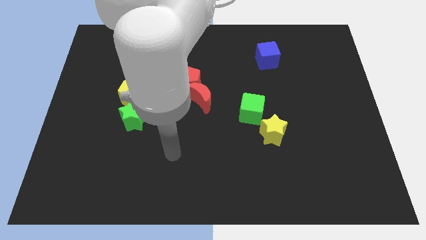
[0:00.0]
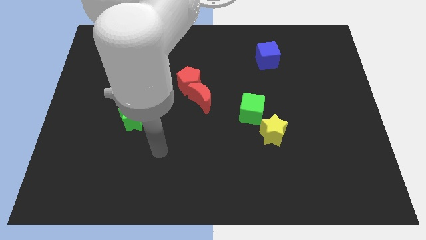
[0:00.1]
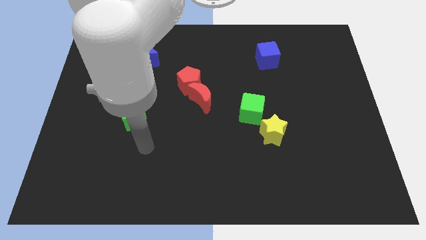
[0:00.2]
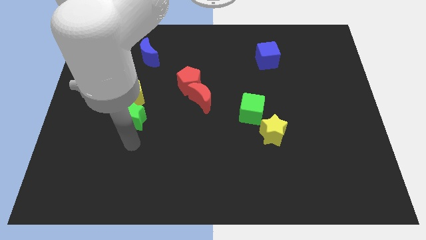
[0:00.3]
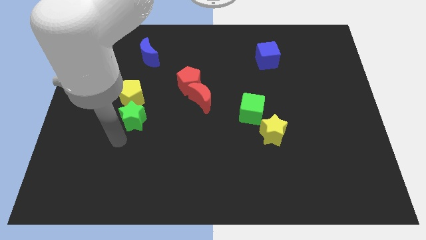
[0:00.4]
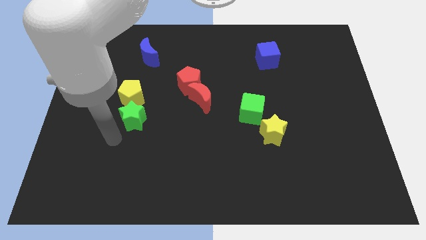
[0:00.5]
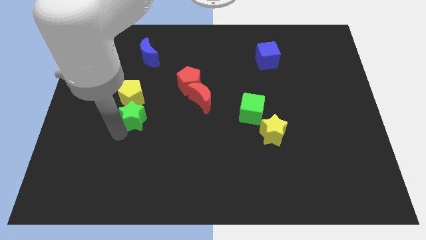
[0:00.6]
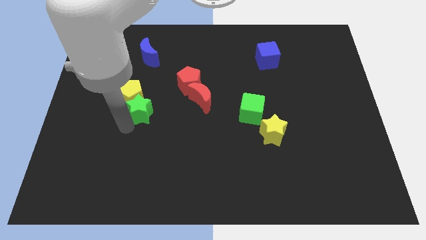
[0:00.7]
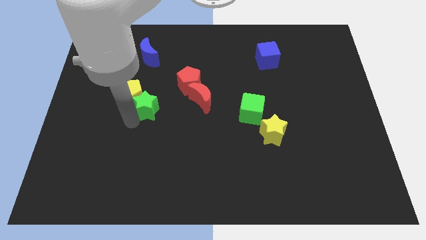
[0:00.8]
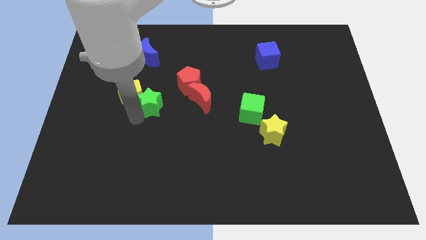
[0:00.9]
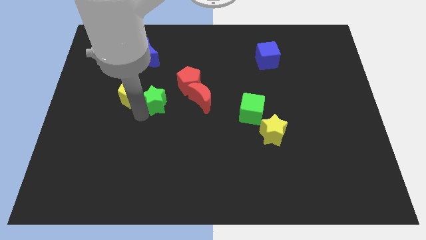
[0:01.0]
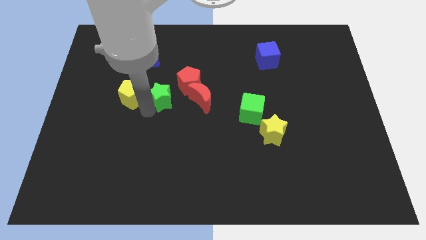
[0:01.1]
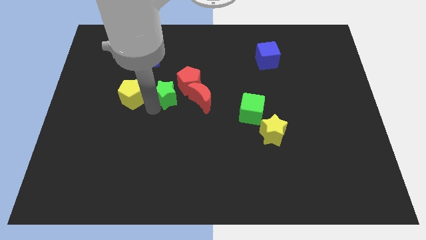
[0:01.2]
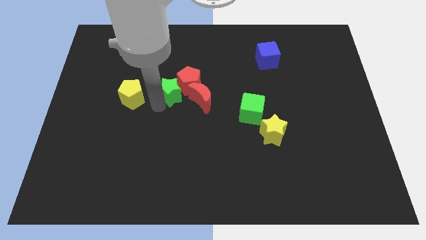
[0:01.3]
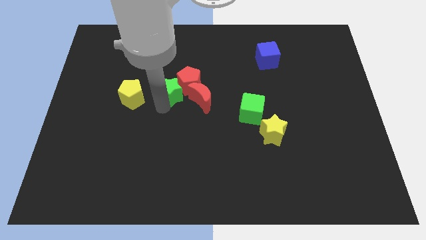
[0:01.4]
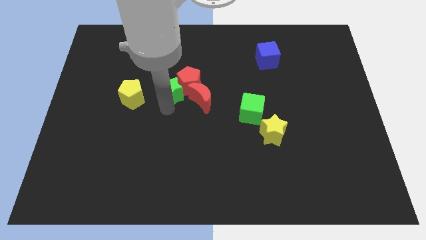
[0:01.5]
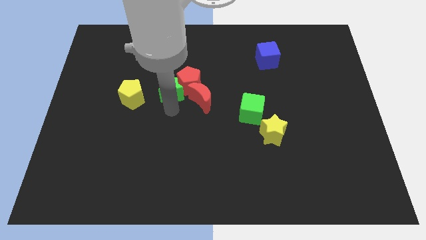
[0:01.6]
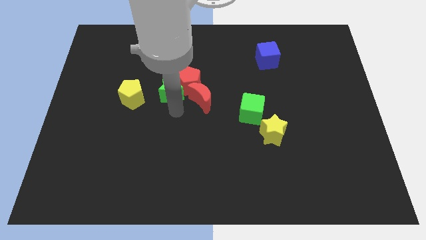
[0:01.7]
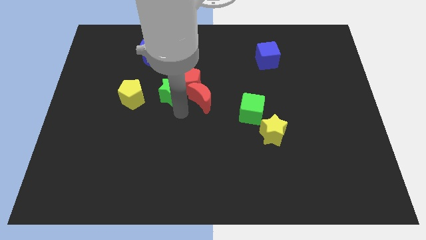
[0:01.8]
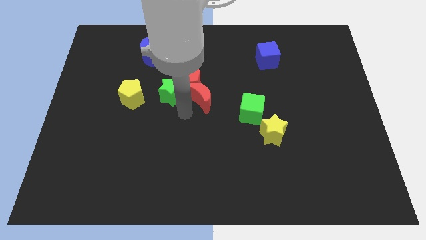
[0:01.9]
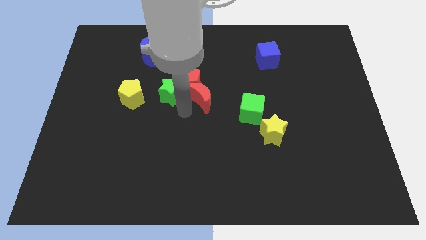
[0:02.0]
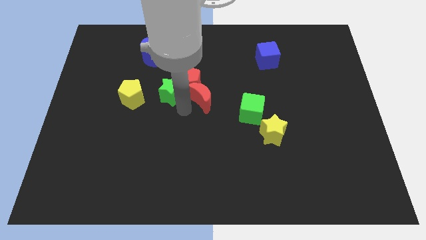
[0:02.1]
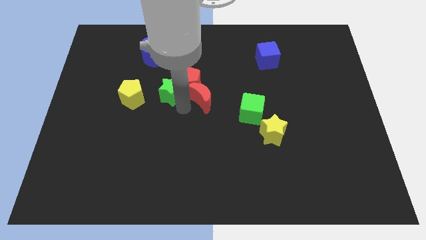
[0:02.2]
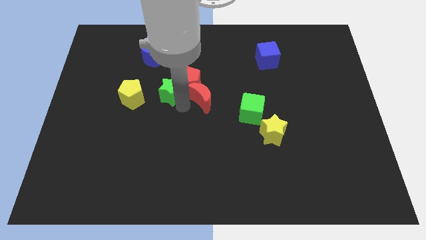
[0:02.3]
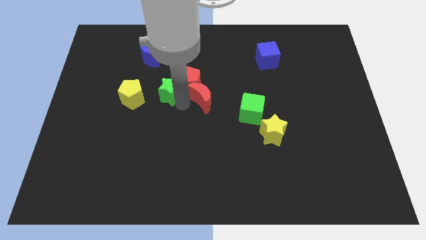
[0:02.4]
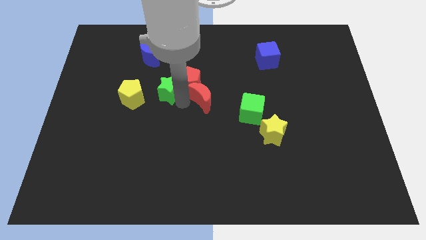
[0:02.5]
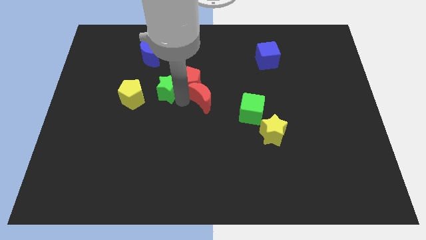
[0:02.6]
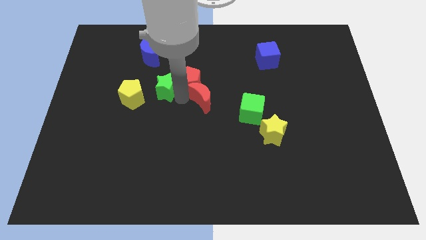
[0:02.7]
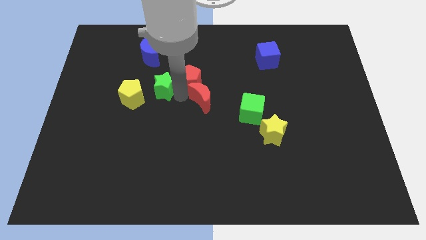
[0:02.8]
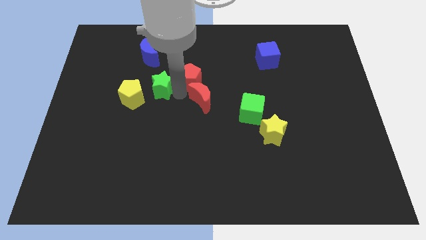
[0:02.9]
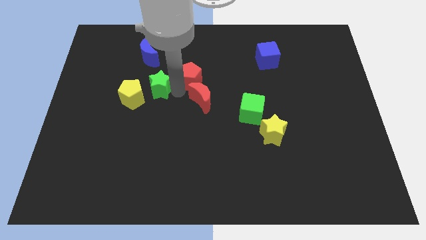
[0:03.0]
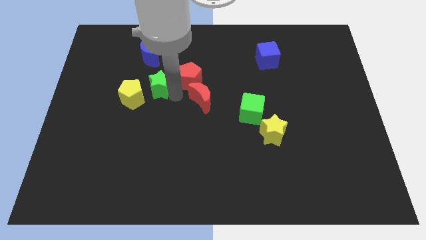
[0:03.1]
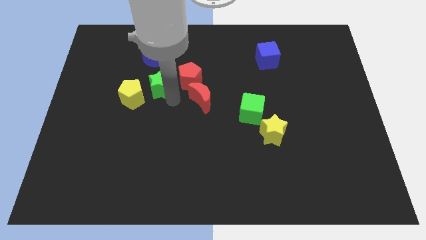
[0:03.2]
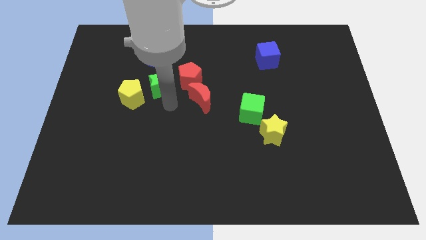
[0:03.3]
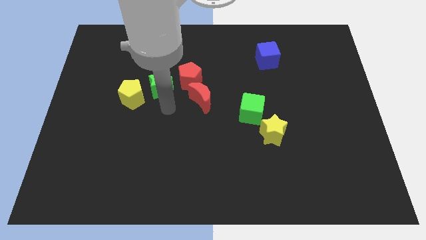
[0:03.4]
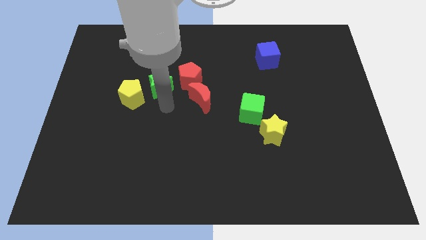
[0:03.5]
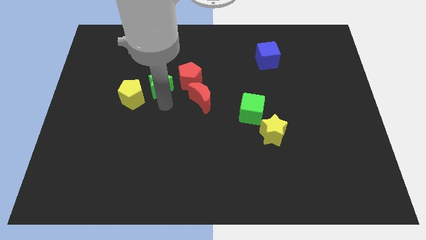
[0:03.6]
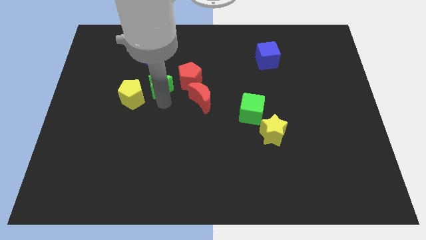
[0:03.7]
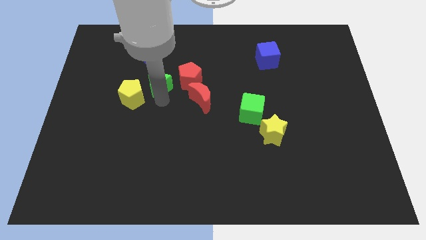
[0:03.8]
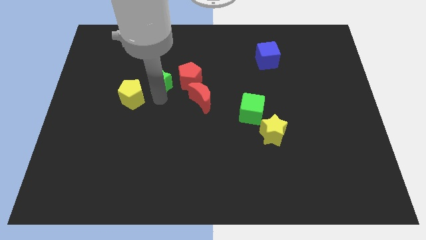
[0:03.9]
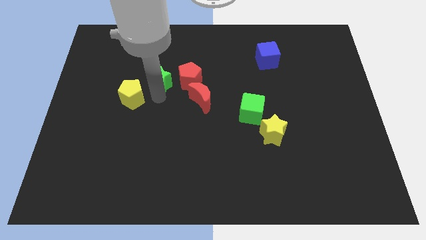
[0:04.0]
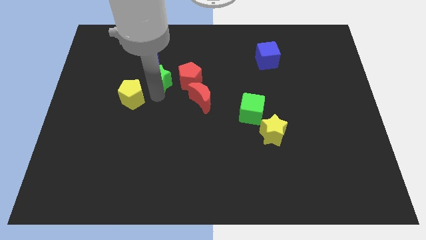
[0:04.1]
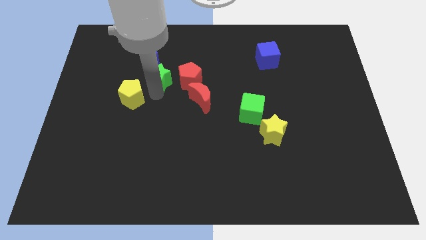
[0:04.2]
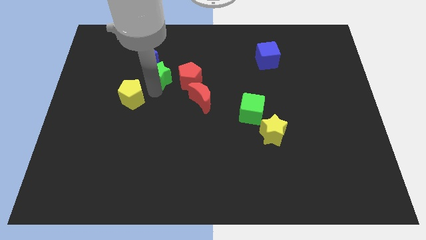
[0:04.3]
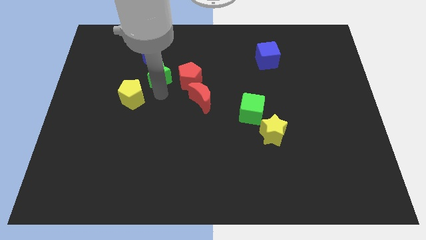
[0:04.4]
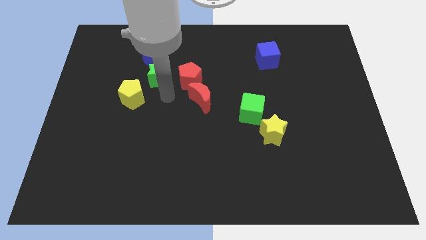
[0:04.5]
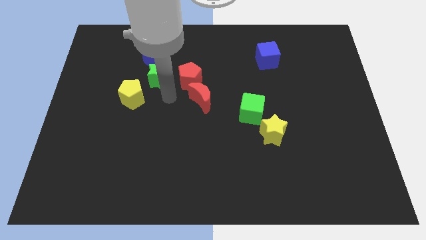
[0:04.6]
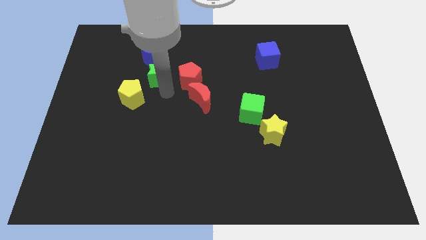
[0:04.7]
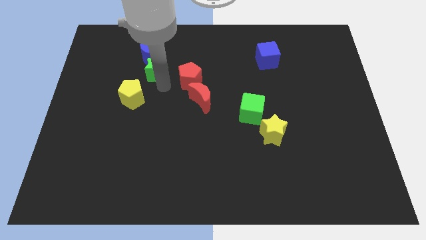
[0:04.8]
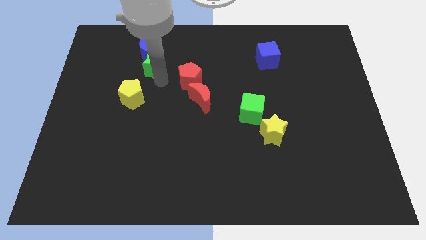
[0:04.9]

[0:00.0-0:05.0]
slide the green star to the blue moon

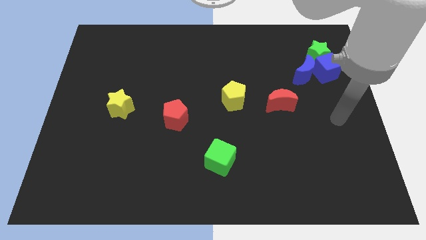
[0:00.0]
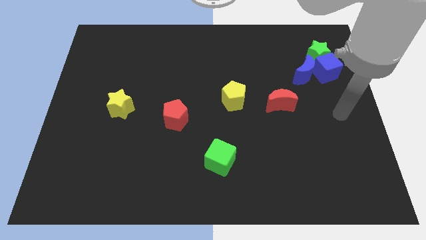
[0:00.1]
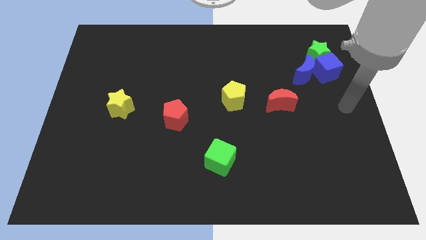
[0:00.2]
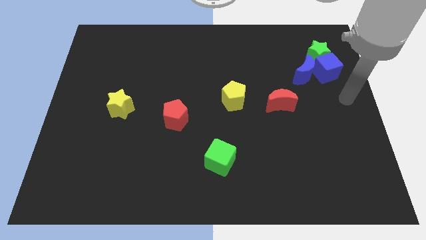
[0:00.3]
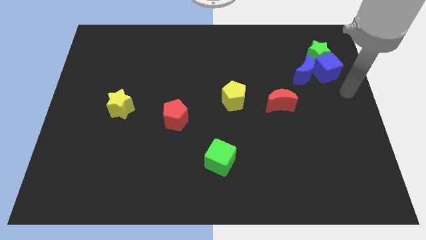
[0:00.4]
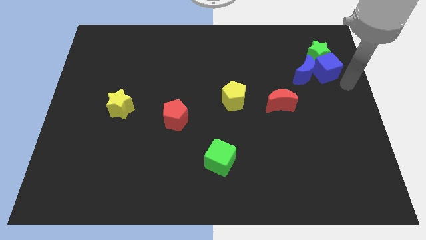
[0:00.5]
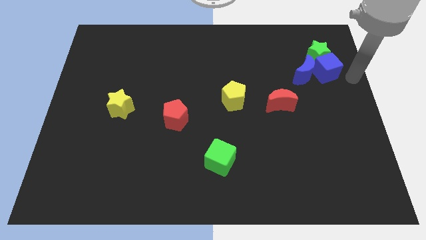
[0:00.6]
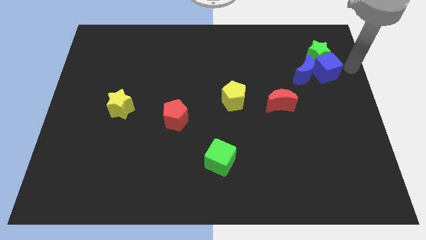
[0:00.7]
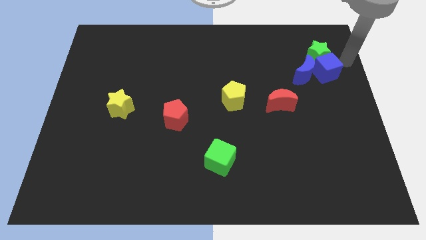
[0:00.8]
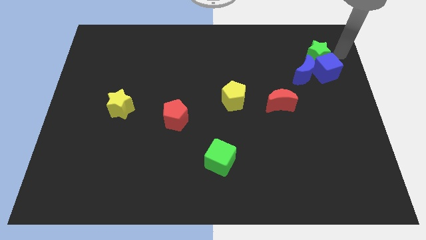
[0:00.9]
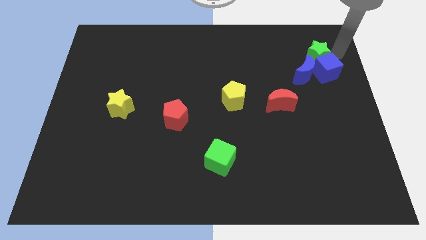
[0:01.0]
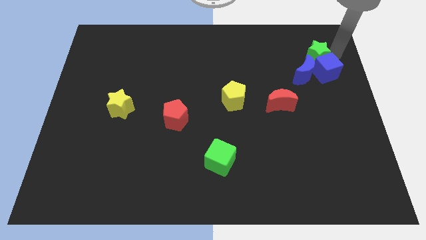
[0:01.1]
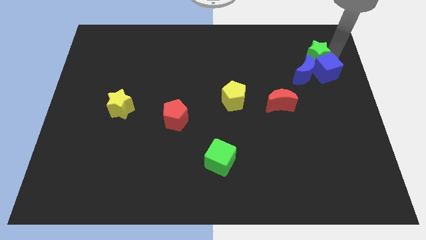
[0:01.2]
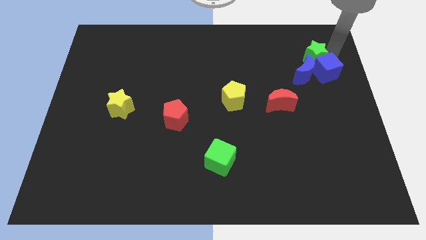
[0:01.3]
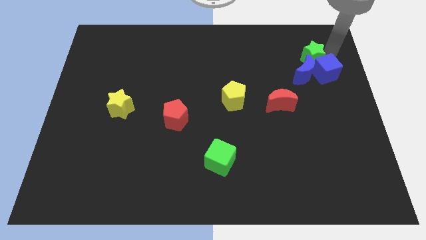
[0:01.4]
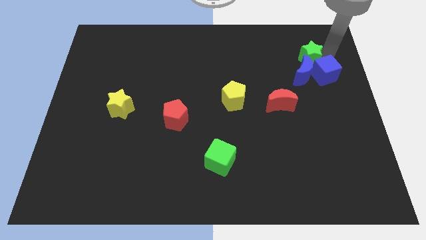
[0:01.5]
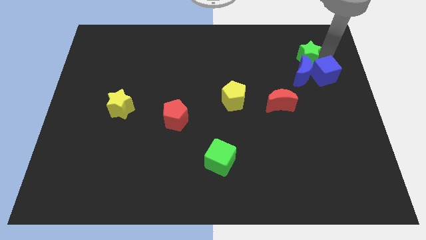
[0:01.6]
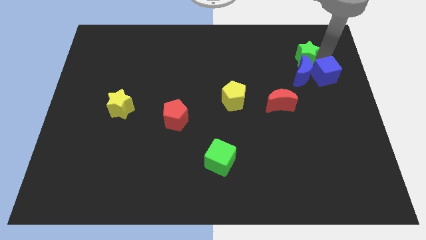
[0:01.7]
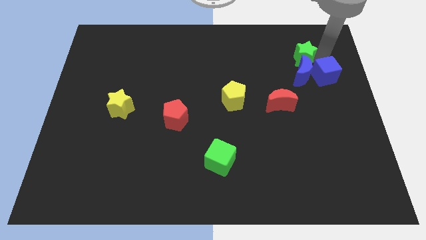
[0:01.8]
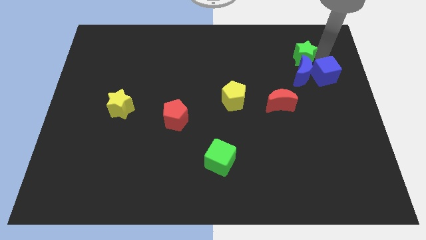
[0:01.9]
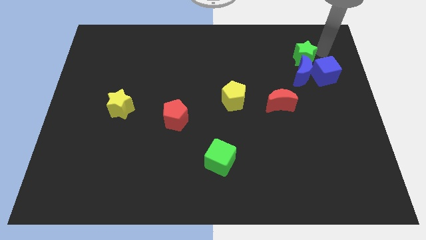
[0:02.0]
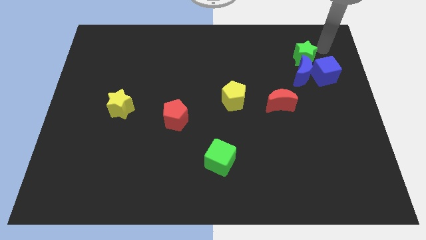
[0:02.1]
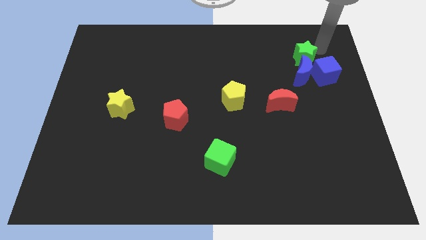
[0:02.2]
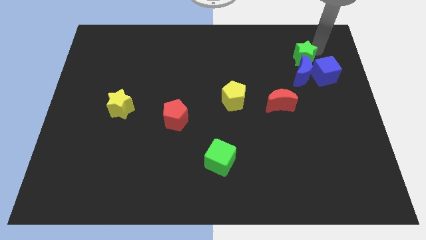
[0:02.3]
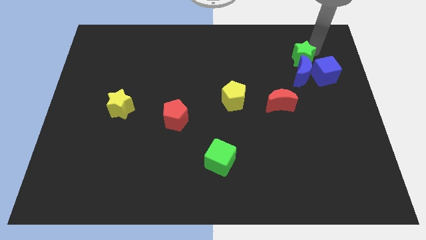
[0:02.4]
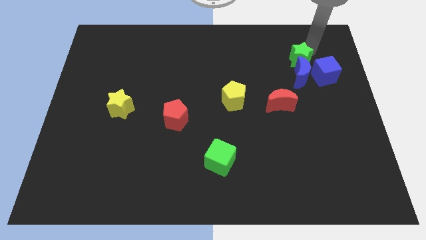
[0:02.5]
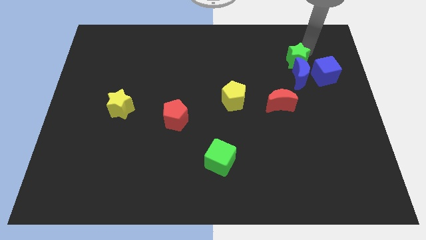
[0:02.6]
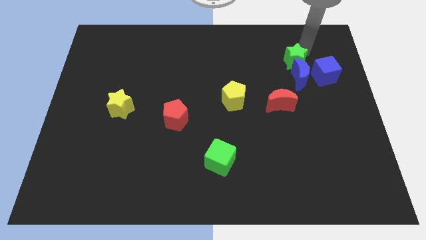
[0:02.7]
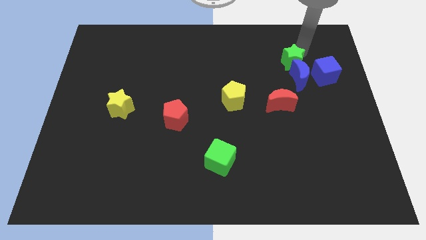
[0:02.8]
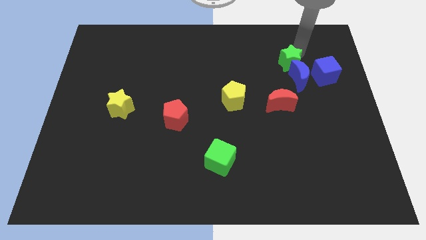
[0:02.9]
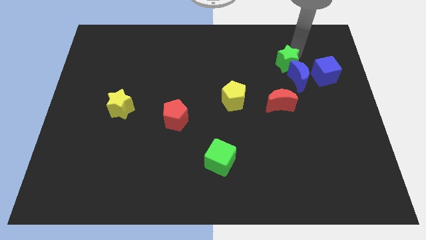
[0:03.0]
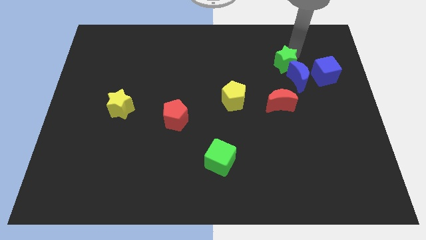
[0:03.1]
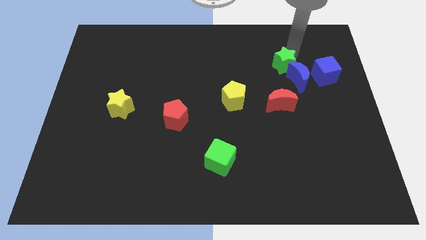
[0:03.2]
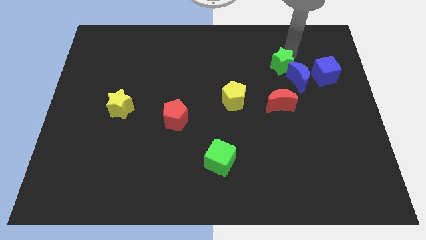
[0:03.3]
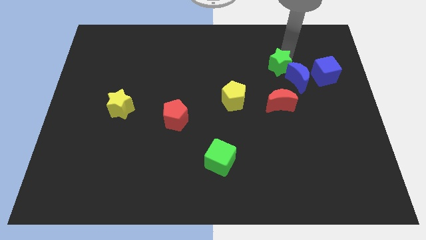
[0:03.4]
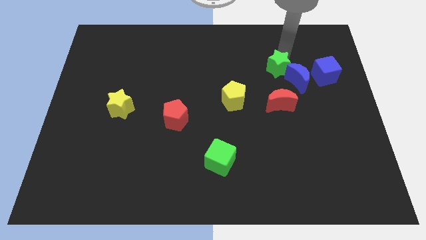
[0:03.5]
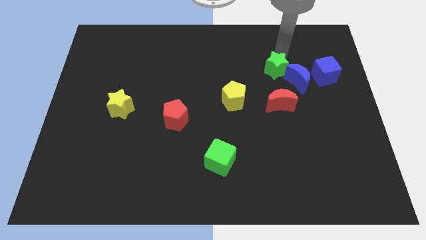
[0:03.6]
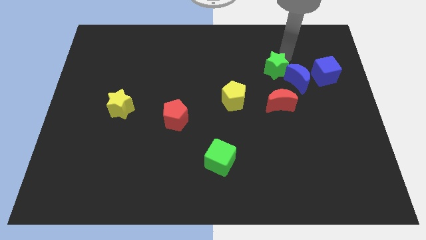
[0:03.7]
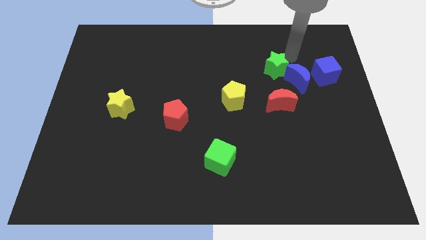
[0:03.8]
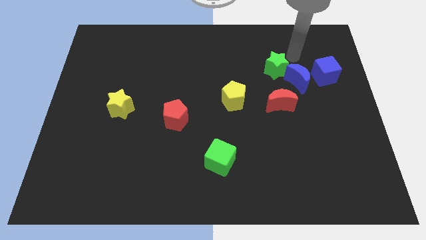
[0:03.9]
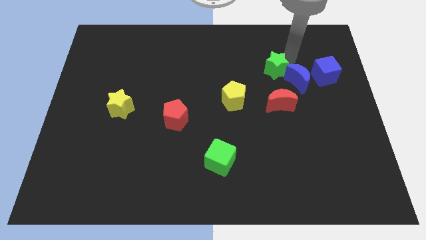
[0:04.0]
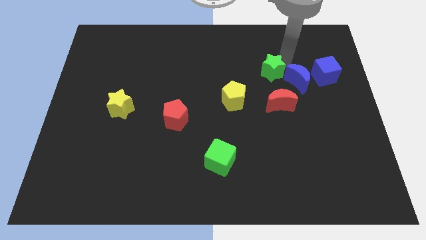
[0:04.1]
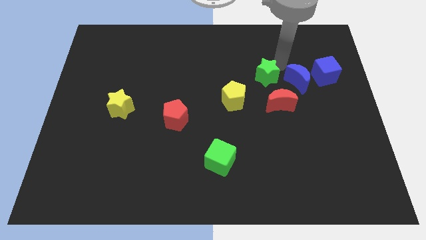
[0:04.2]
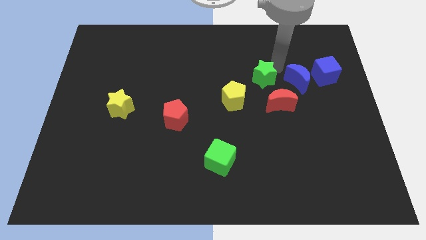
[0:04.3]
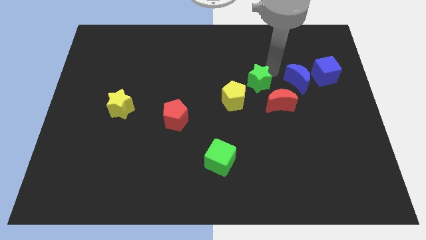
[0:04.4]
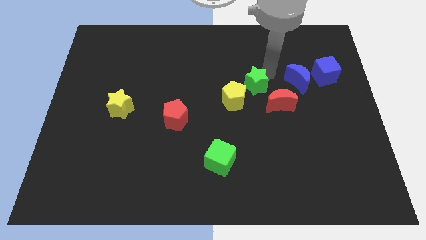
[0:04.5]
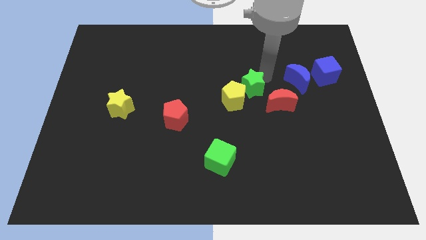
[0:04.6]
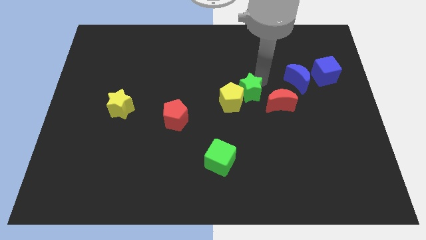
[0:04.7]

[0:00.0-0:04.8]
move the green star next to the yellow pentagon
